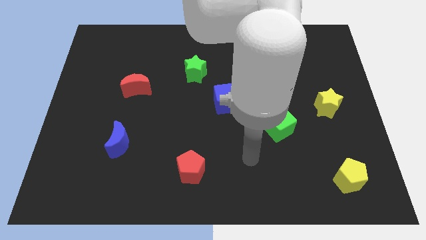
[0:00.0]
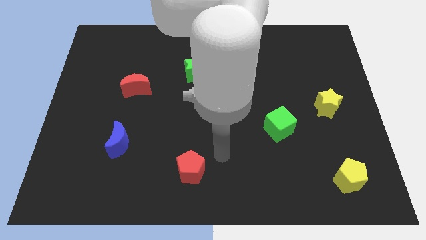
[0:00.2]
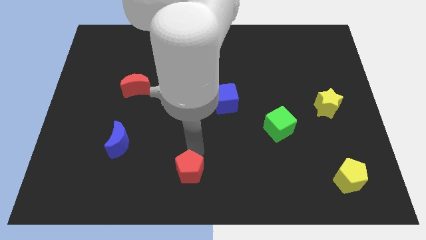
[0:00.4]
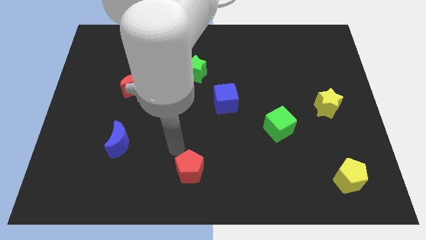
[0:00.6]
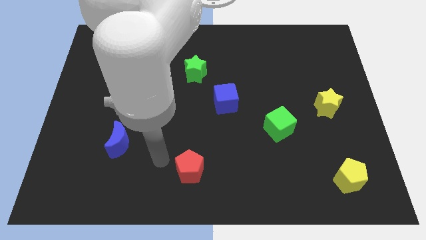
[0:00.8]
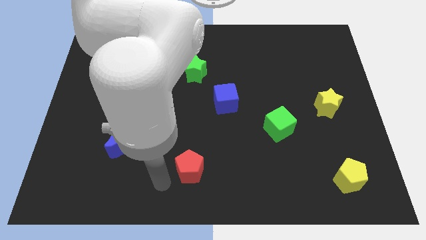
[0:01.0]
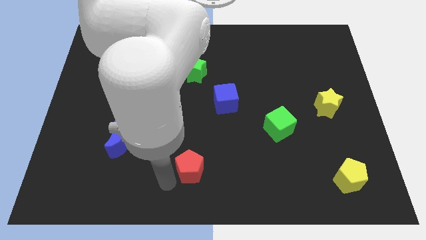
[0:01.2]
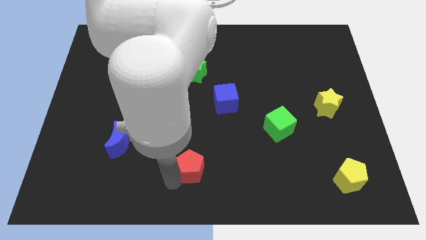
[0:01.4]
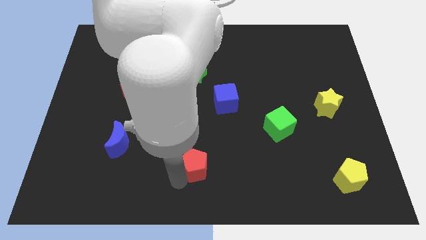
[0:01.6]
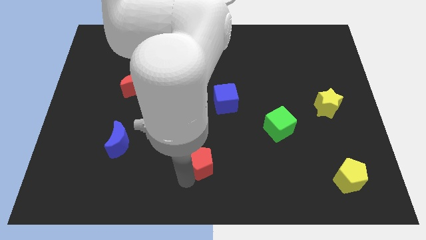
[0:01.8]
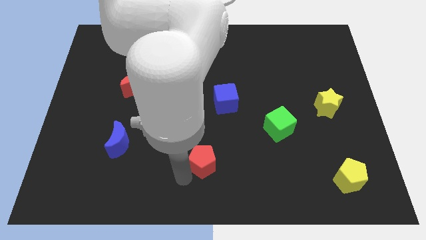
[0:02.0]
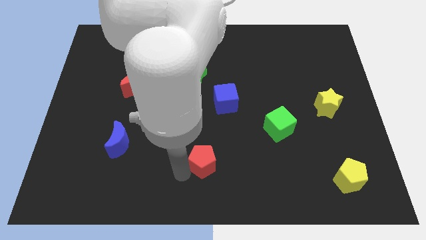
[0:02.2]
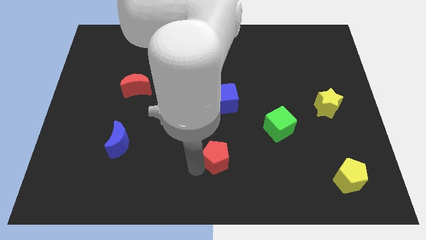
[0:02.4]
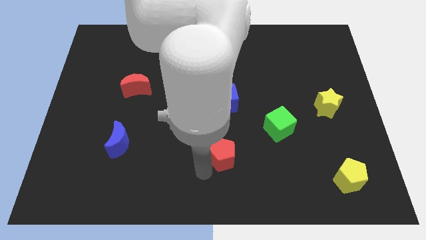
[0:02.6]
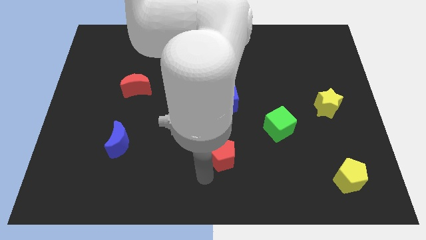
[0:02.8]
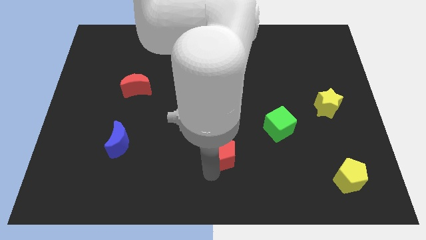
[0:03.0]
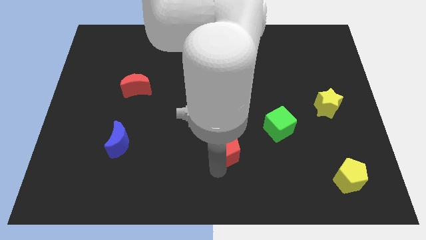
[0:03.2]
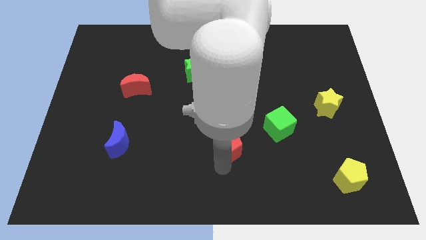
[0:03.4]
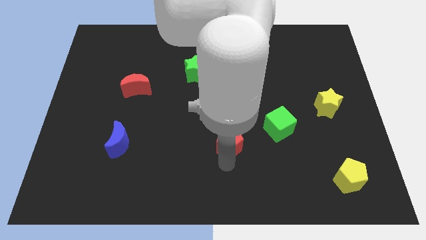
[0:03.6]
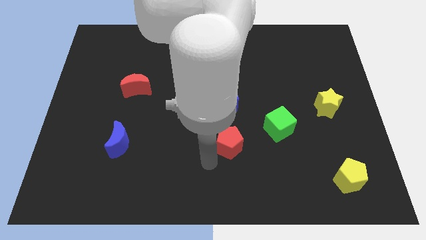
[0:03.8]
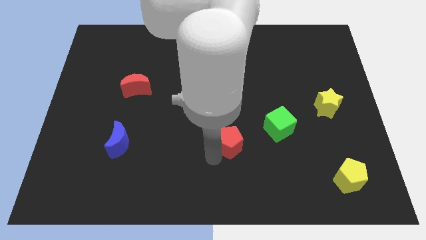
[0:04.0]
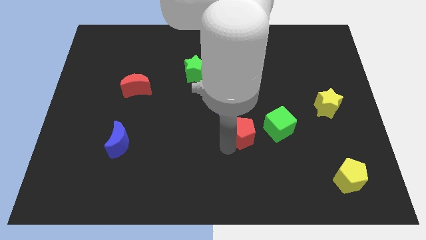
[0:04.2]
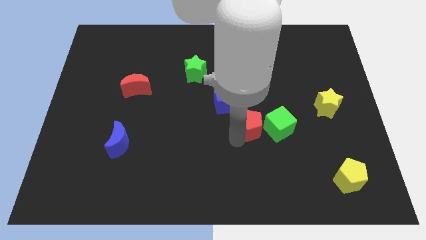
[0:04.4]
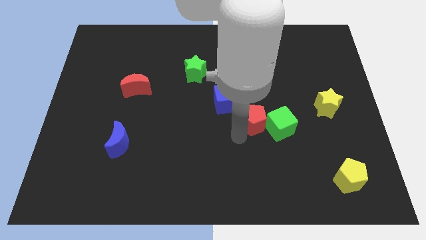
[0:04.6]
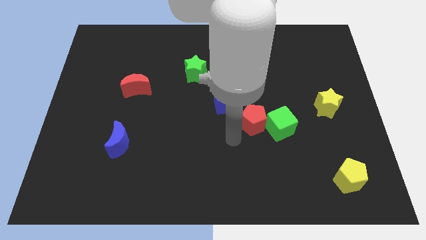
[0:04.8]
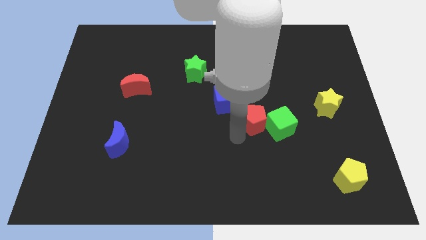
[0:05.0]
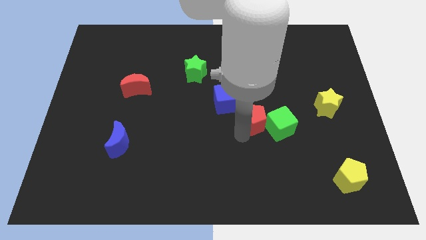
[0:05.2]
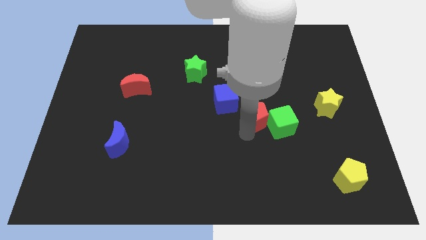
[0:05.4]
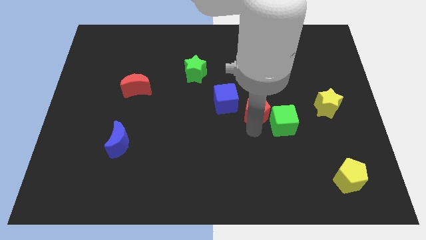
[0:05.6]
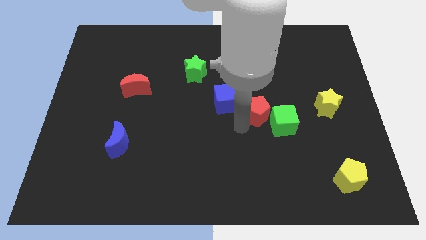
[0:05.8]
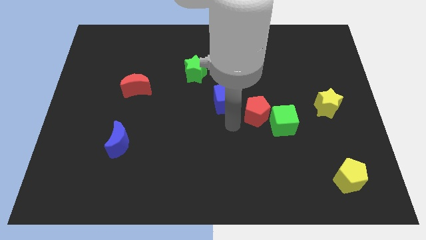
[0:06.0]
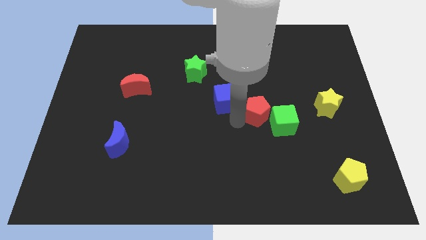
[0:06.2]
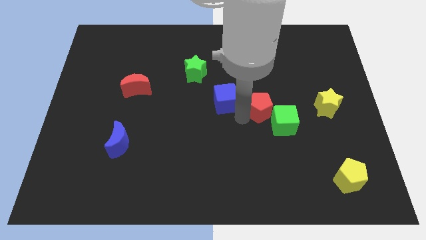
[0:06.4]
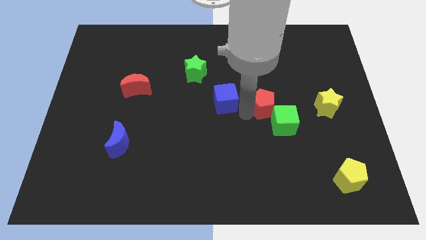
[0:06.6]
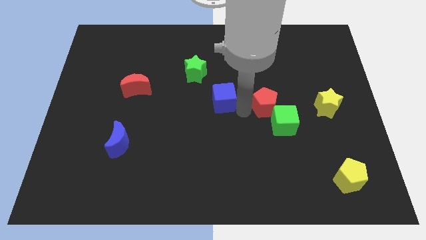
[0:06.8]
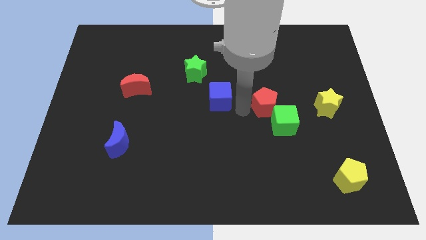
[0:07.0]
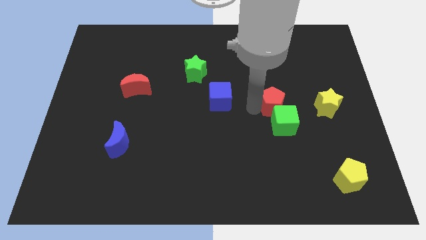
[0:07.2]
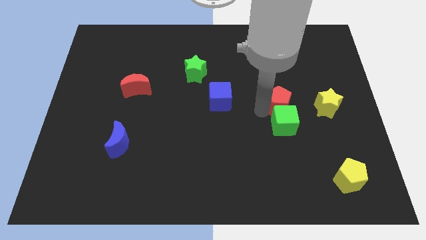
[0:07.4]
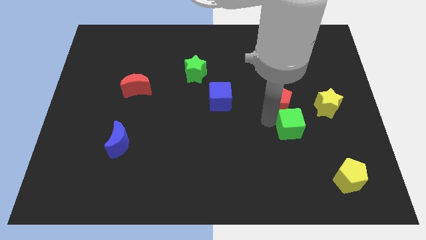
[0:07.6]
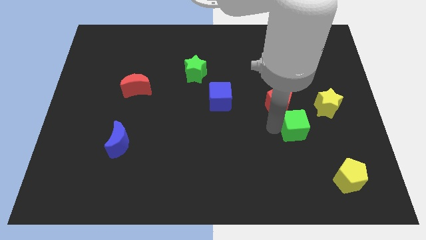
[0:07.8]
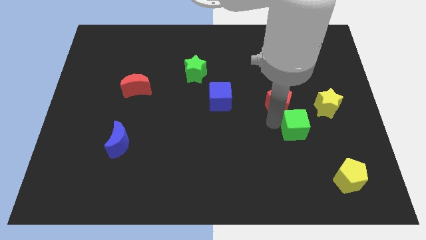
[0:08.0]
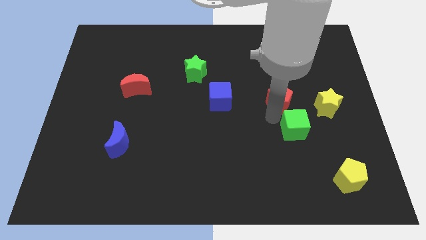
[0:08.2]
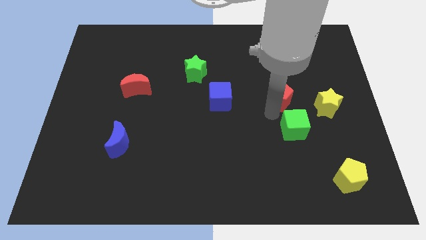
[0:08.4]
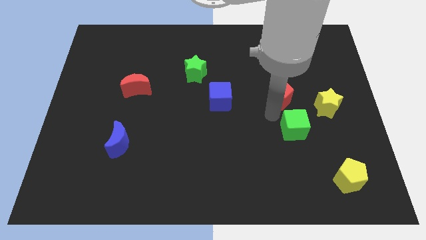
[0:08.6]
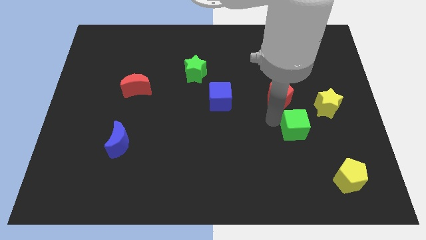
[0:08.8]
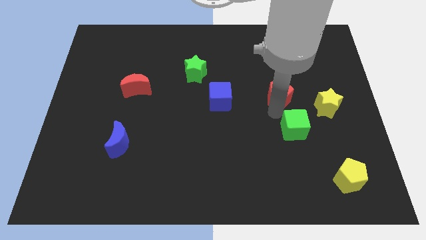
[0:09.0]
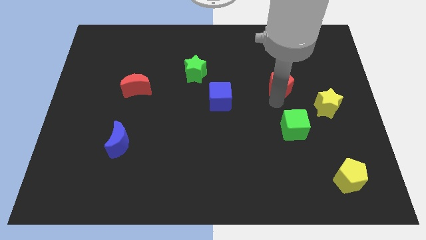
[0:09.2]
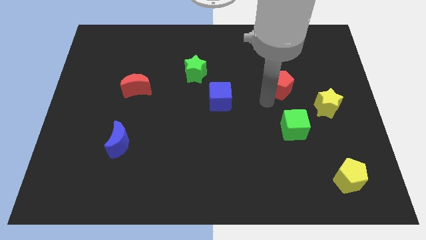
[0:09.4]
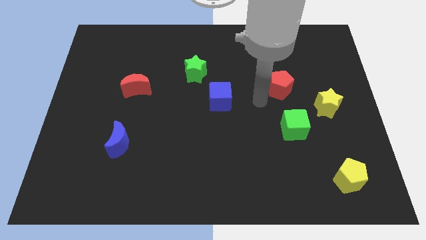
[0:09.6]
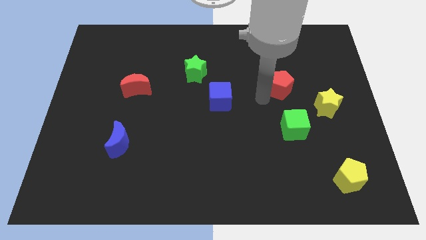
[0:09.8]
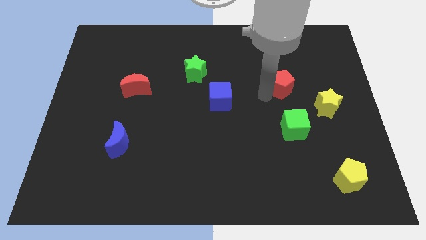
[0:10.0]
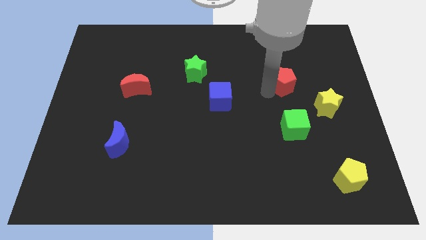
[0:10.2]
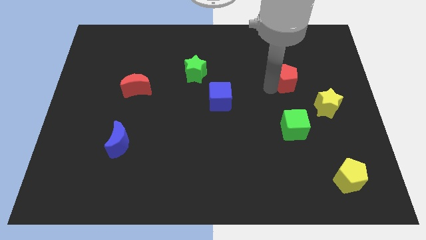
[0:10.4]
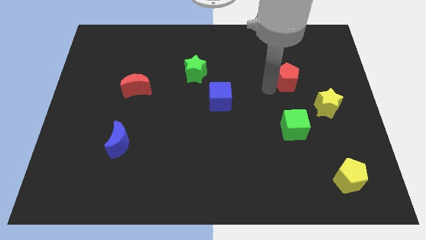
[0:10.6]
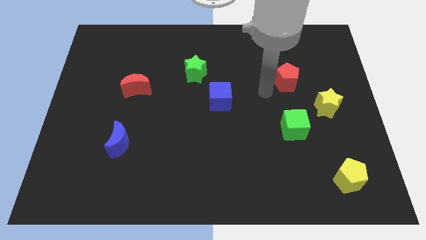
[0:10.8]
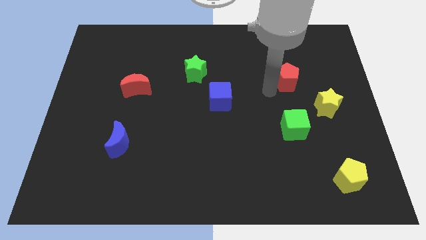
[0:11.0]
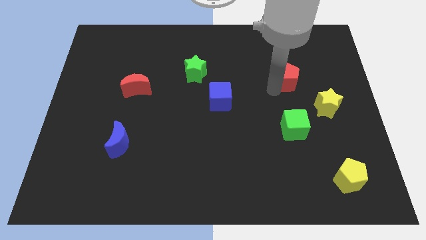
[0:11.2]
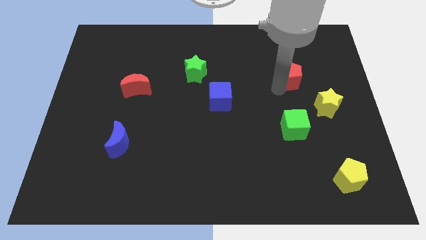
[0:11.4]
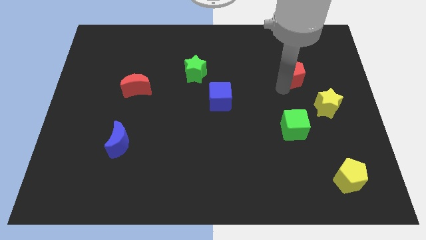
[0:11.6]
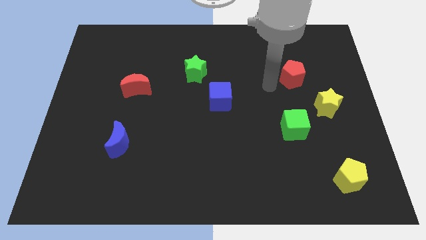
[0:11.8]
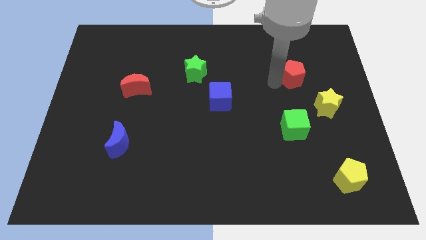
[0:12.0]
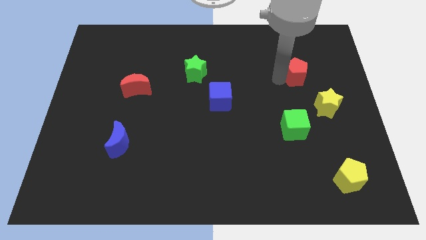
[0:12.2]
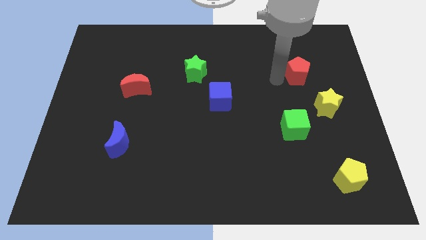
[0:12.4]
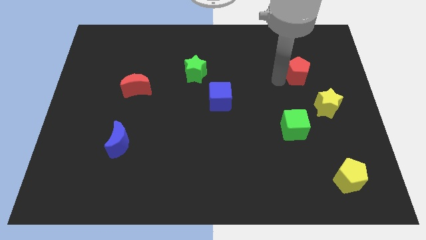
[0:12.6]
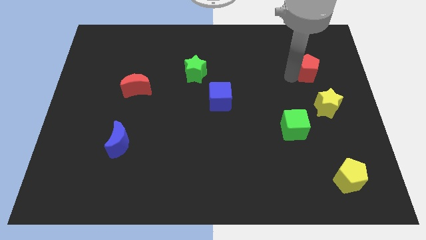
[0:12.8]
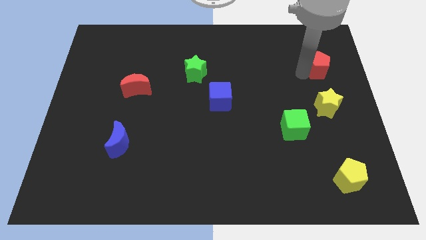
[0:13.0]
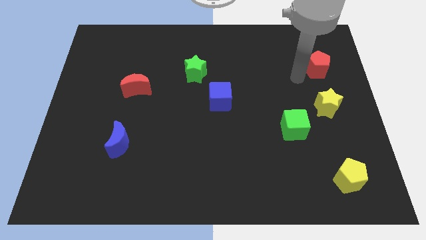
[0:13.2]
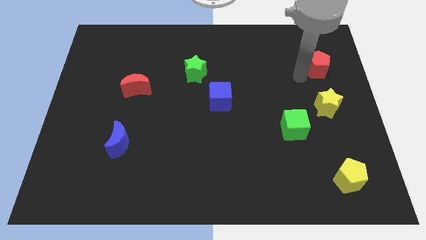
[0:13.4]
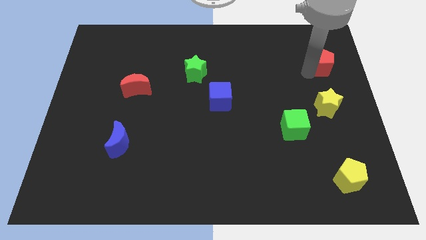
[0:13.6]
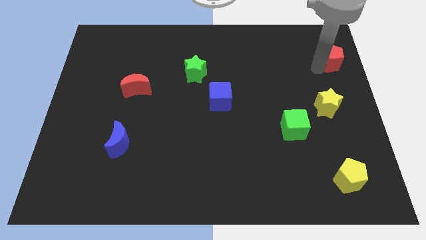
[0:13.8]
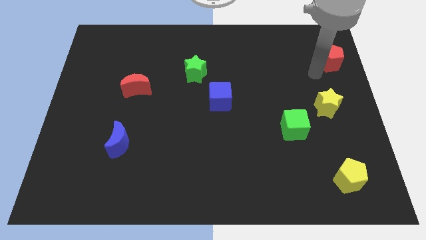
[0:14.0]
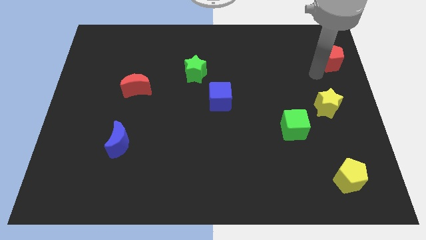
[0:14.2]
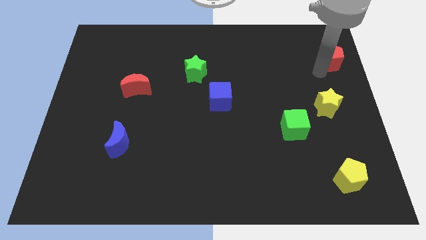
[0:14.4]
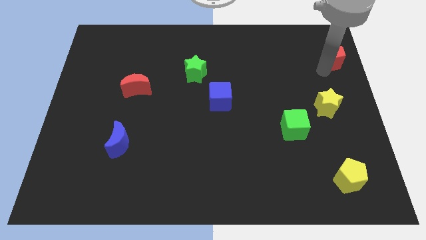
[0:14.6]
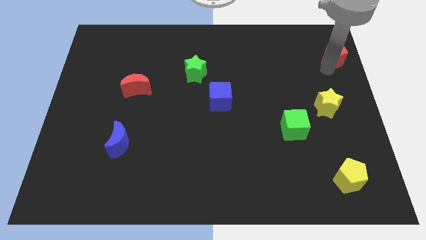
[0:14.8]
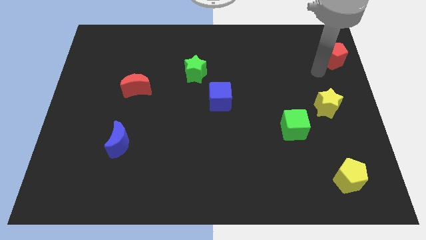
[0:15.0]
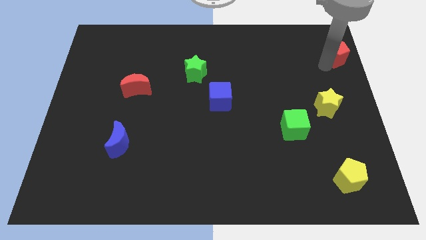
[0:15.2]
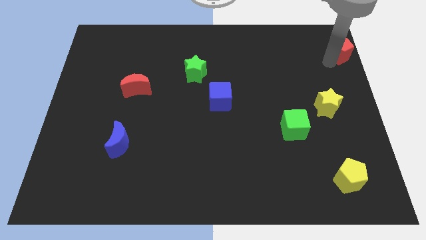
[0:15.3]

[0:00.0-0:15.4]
push the red pentagon to the upper right corner
